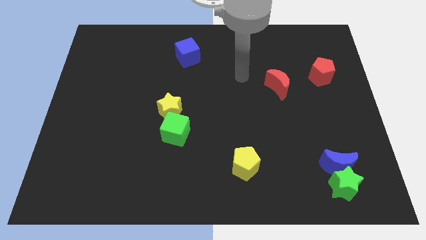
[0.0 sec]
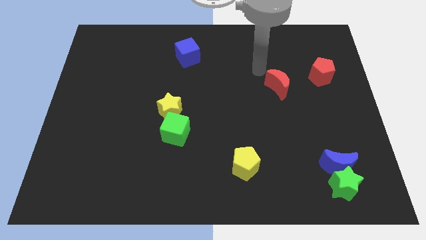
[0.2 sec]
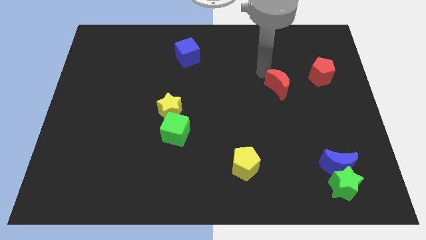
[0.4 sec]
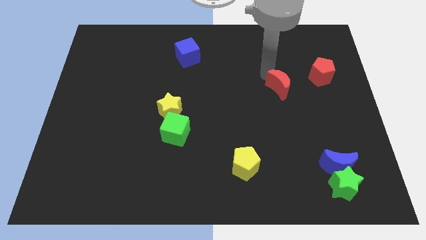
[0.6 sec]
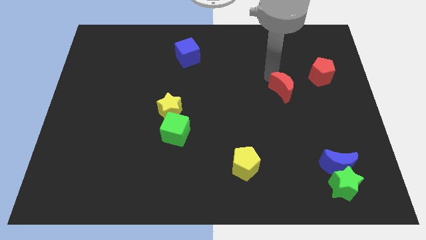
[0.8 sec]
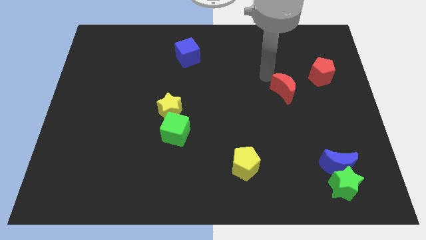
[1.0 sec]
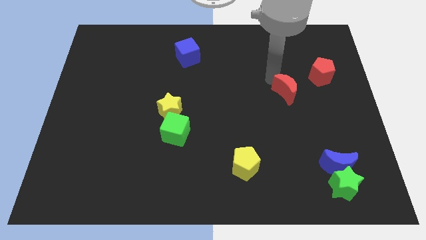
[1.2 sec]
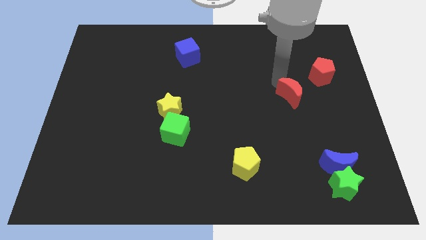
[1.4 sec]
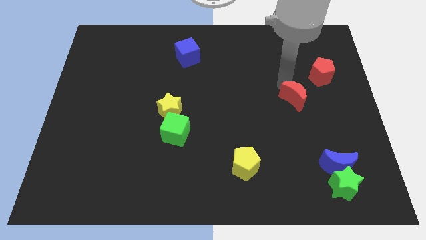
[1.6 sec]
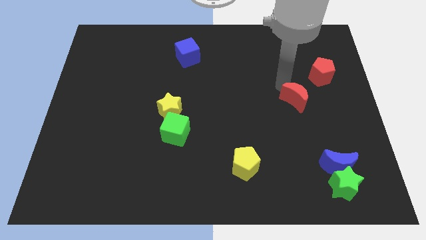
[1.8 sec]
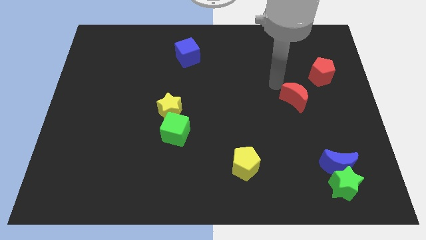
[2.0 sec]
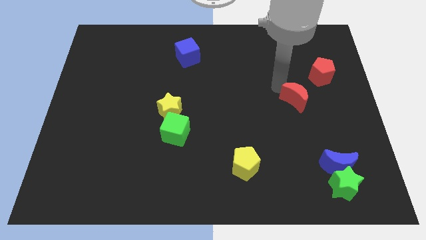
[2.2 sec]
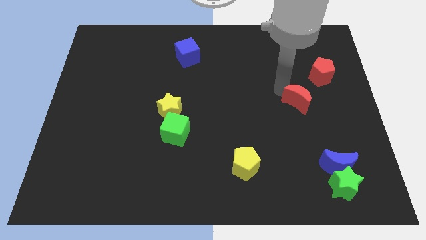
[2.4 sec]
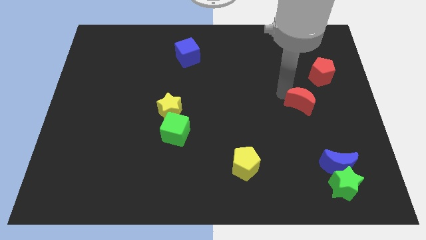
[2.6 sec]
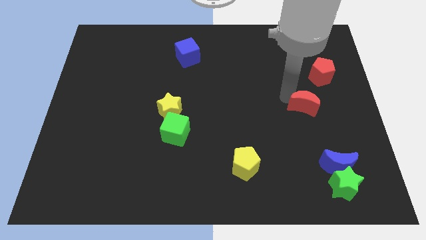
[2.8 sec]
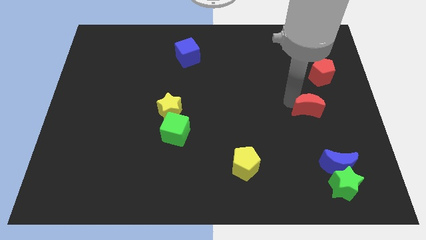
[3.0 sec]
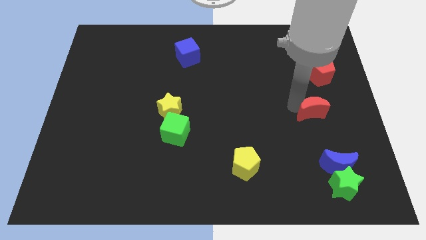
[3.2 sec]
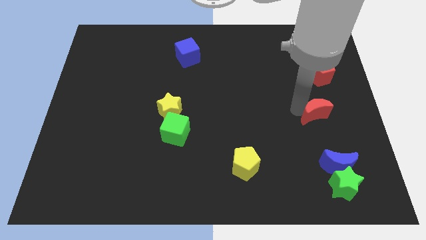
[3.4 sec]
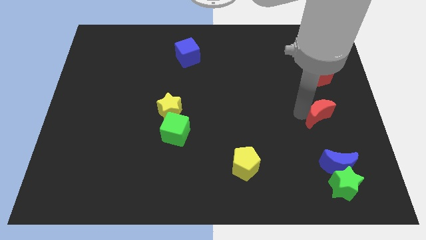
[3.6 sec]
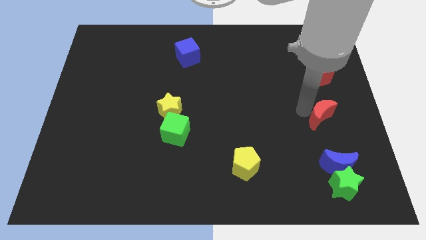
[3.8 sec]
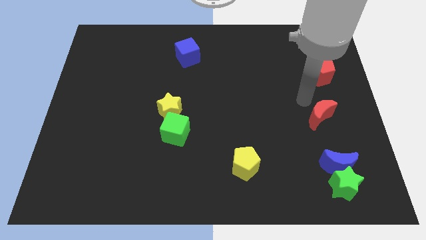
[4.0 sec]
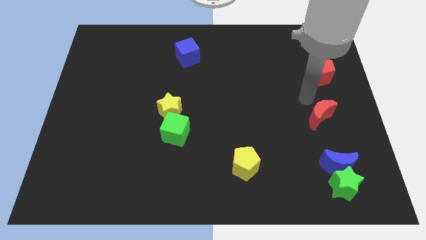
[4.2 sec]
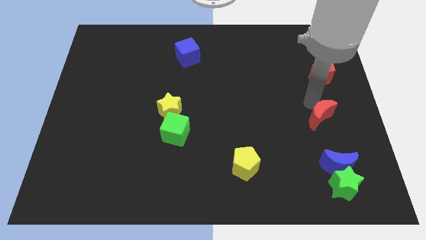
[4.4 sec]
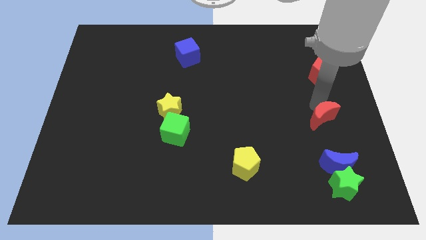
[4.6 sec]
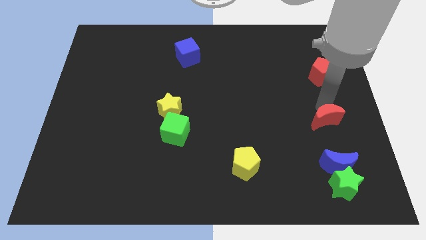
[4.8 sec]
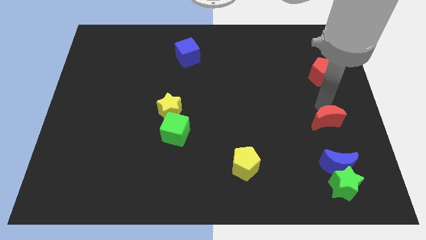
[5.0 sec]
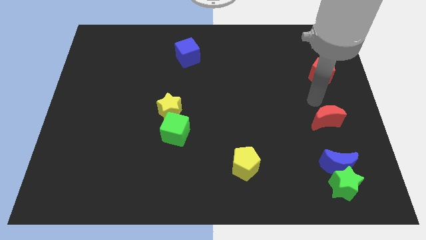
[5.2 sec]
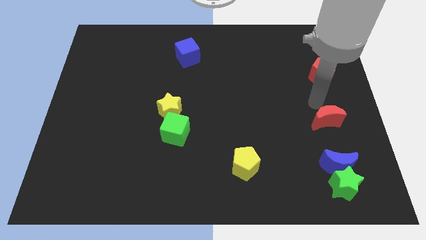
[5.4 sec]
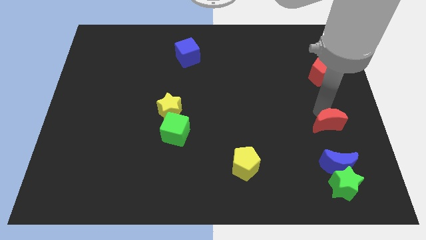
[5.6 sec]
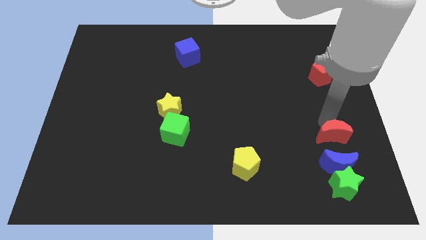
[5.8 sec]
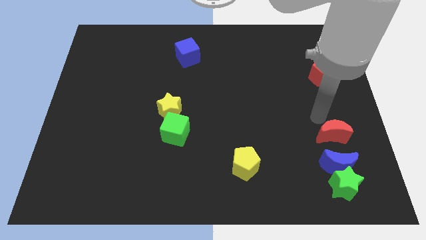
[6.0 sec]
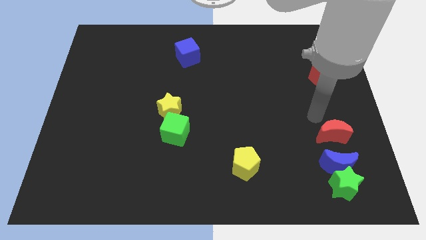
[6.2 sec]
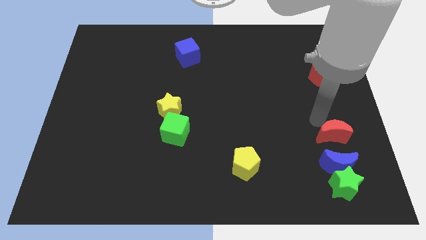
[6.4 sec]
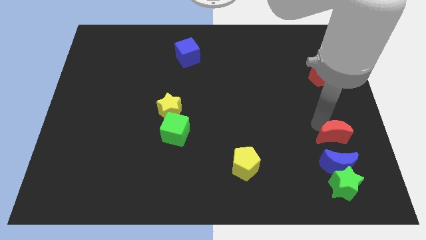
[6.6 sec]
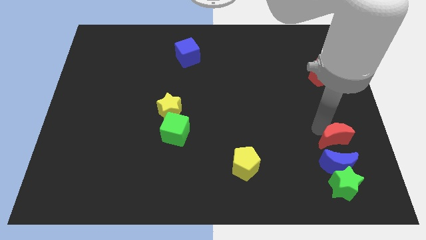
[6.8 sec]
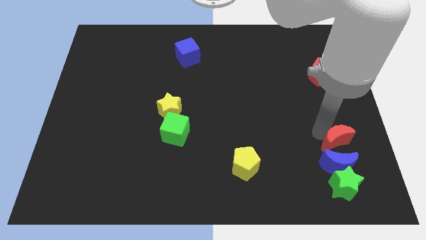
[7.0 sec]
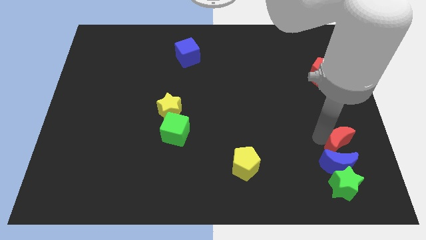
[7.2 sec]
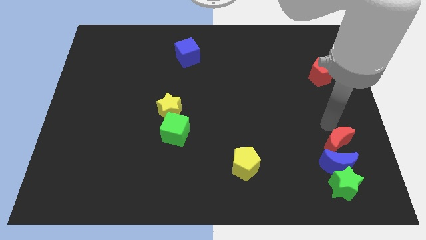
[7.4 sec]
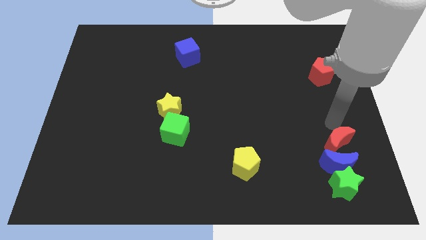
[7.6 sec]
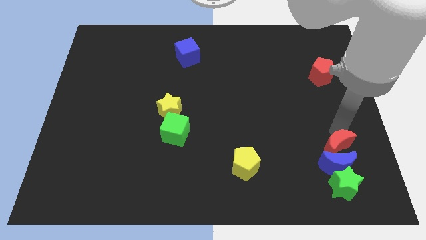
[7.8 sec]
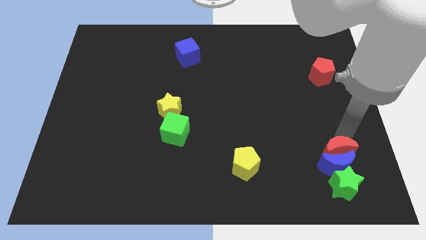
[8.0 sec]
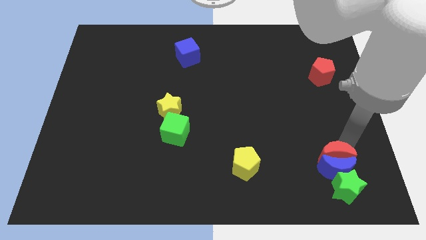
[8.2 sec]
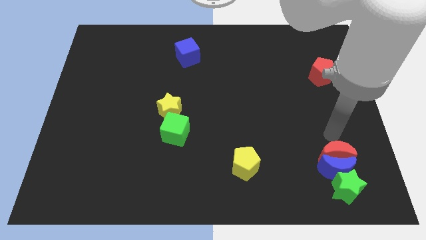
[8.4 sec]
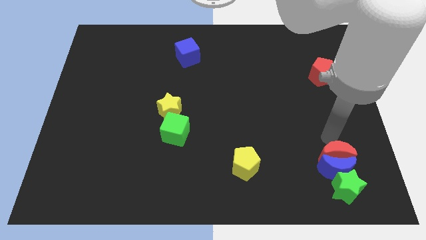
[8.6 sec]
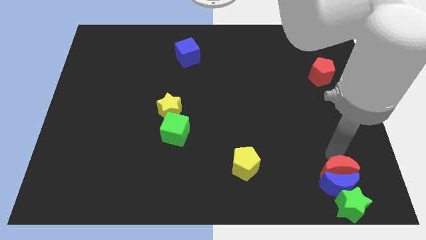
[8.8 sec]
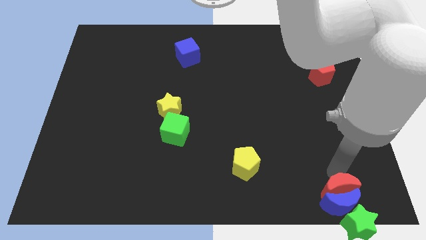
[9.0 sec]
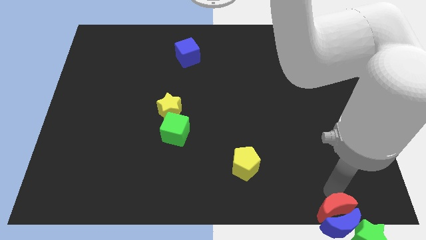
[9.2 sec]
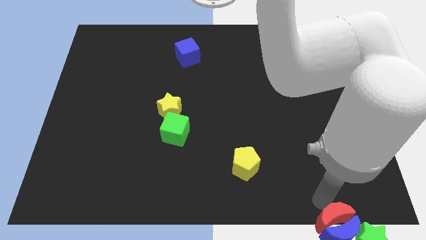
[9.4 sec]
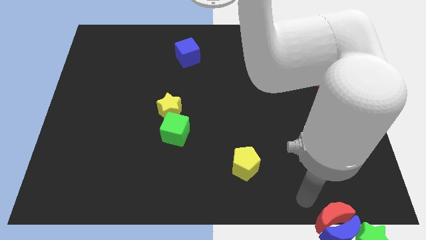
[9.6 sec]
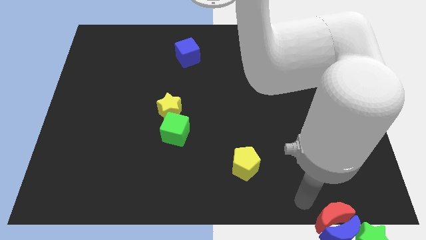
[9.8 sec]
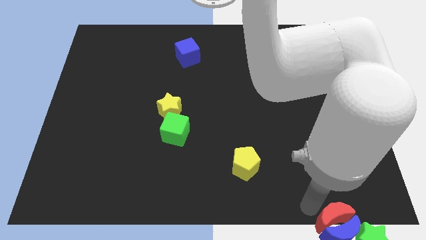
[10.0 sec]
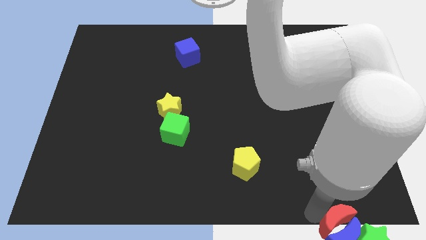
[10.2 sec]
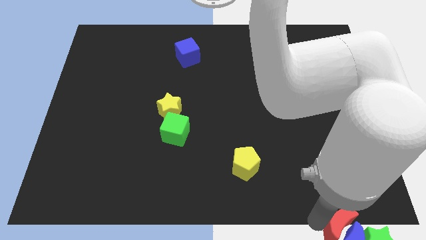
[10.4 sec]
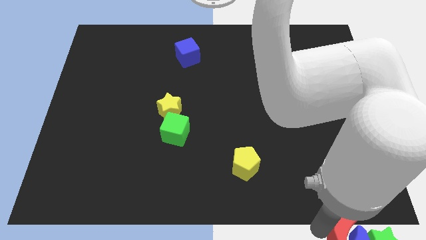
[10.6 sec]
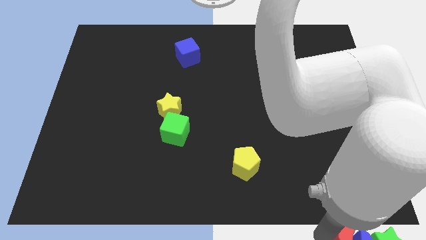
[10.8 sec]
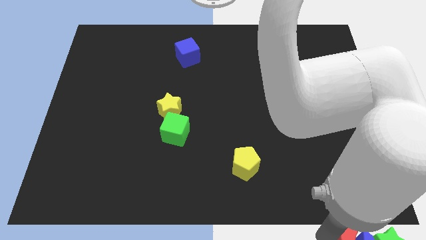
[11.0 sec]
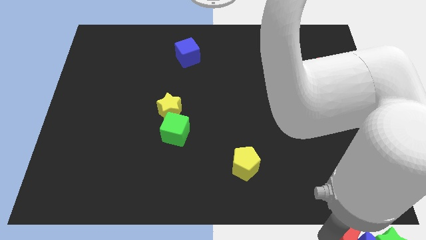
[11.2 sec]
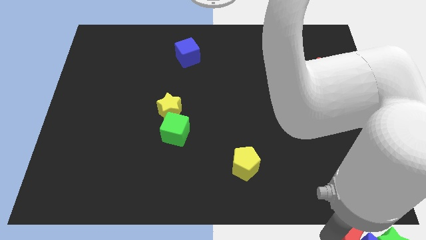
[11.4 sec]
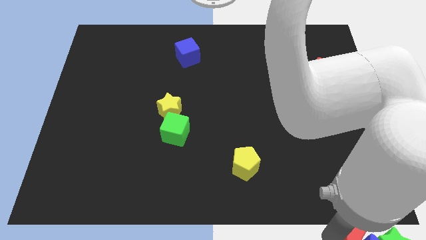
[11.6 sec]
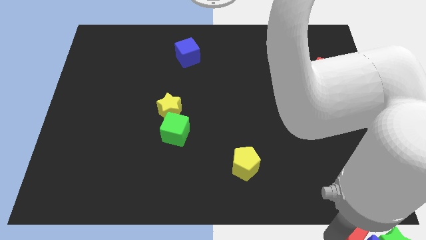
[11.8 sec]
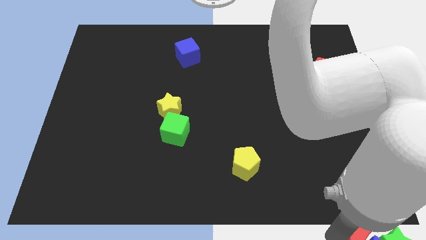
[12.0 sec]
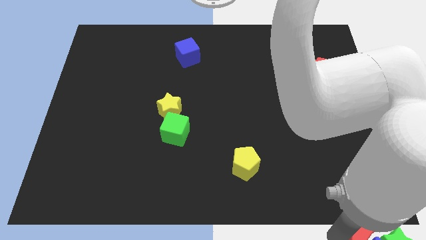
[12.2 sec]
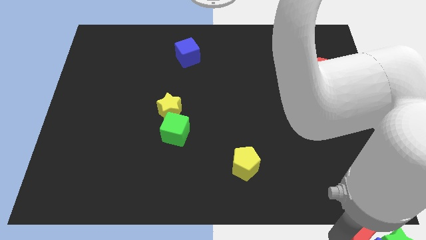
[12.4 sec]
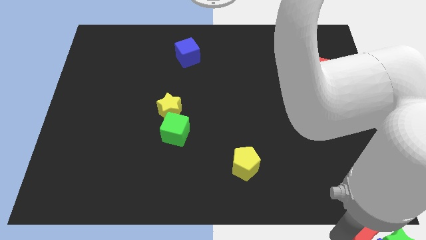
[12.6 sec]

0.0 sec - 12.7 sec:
put the red moon to the green star
